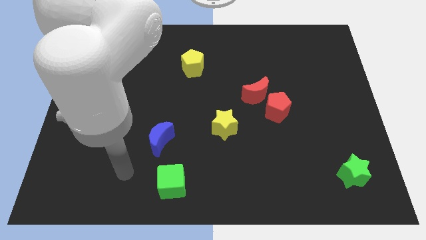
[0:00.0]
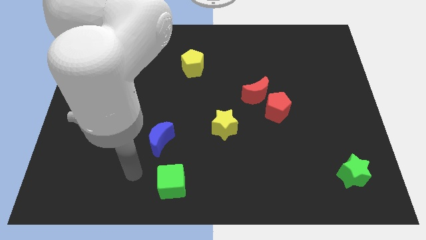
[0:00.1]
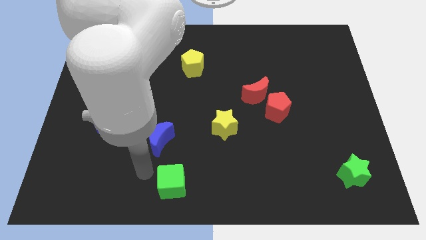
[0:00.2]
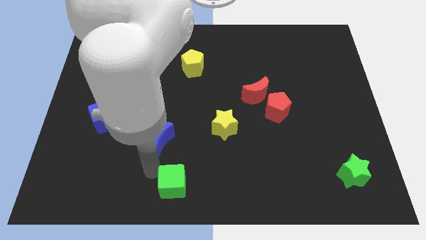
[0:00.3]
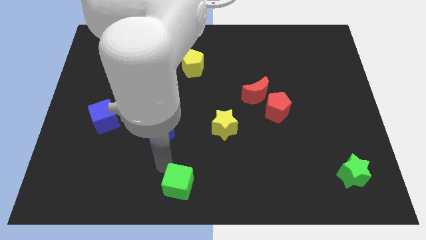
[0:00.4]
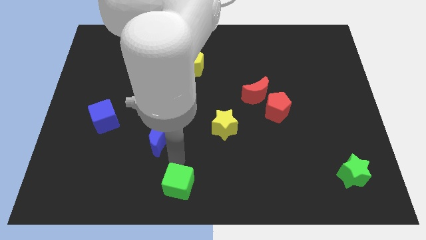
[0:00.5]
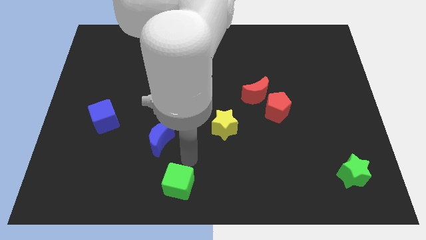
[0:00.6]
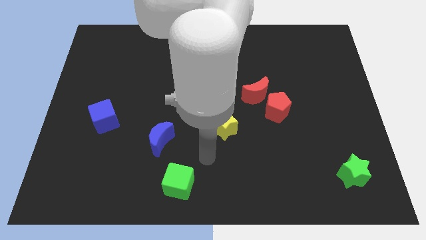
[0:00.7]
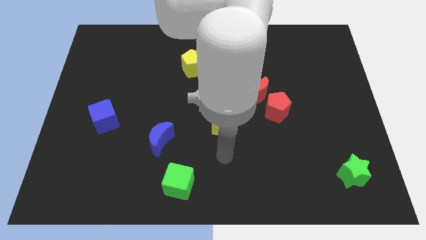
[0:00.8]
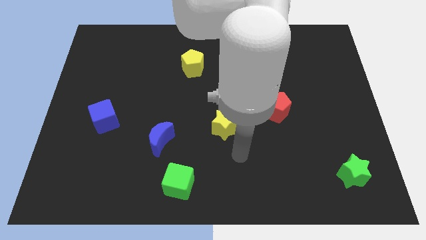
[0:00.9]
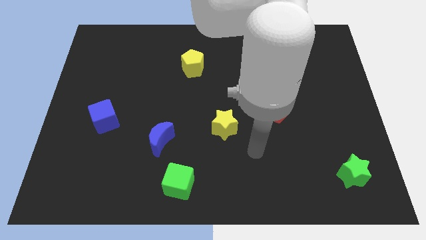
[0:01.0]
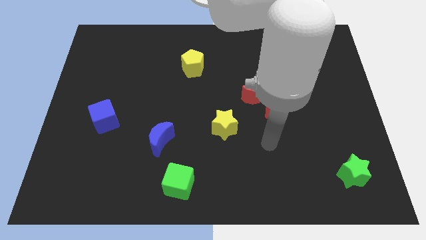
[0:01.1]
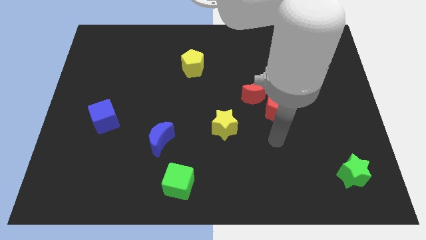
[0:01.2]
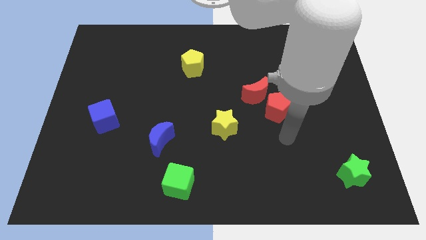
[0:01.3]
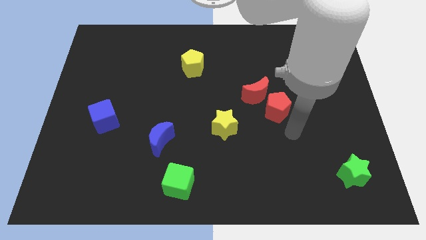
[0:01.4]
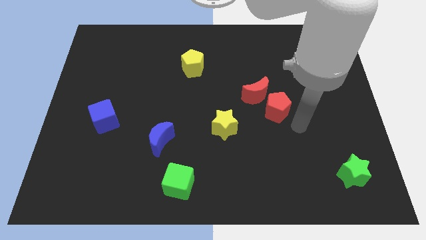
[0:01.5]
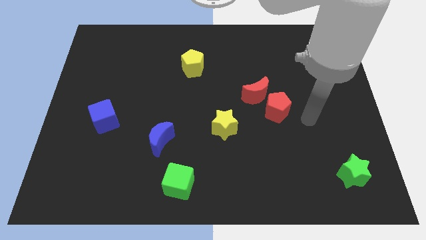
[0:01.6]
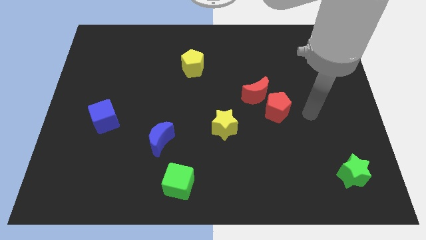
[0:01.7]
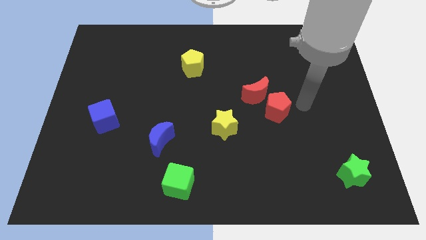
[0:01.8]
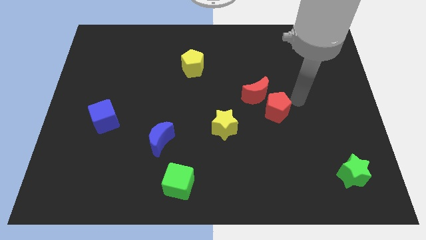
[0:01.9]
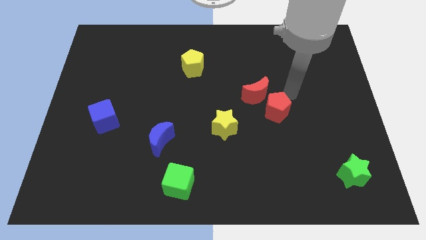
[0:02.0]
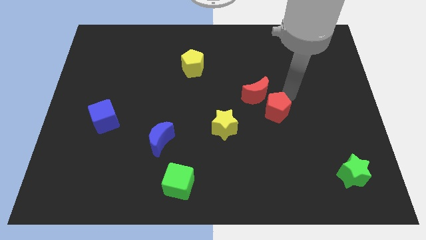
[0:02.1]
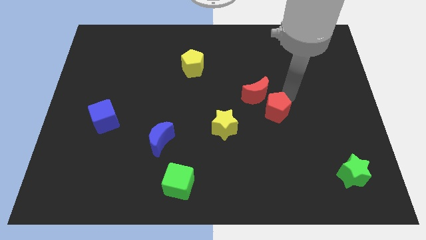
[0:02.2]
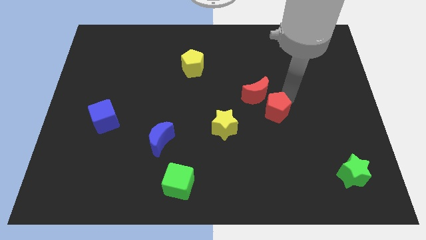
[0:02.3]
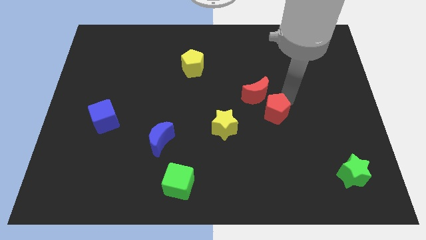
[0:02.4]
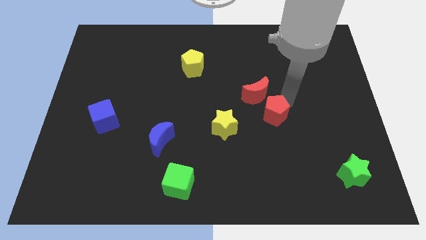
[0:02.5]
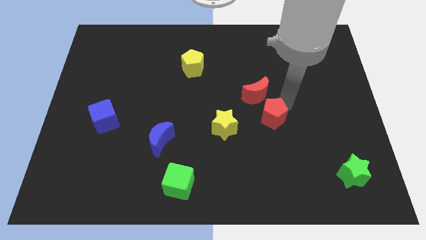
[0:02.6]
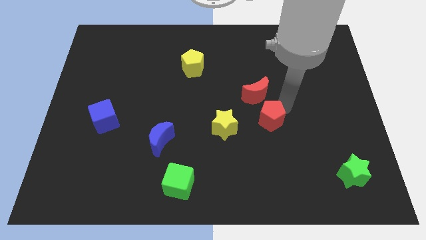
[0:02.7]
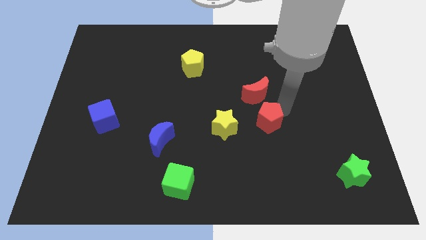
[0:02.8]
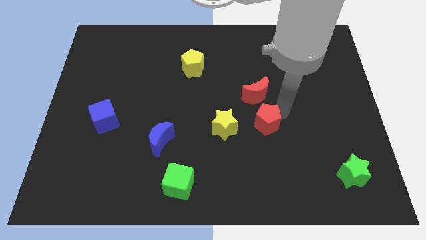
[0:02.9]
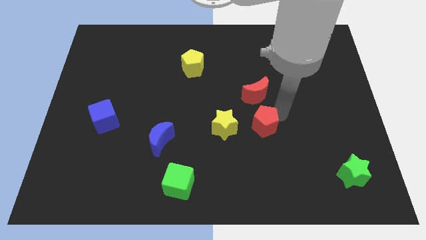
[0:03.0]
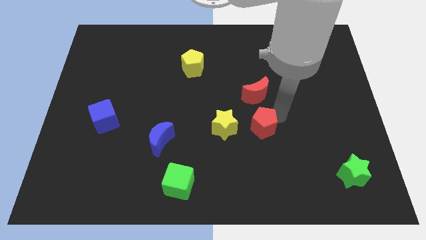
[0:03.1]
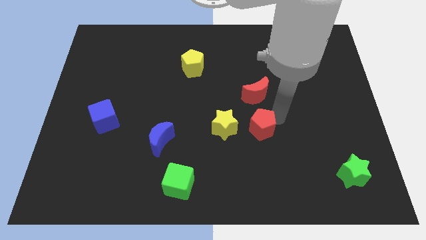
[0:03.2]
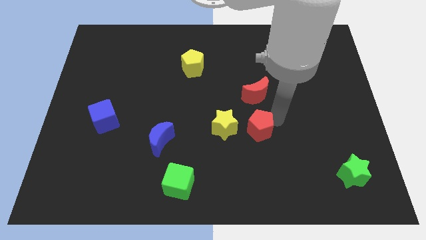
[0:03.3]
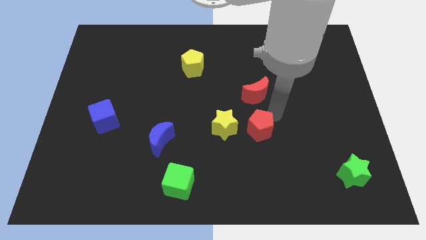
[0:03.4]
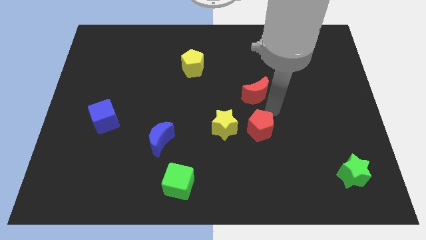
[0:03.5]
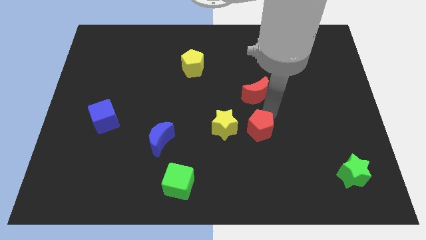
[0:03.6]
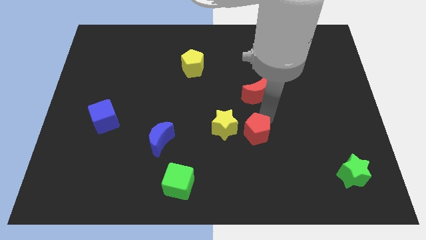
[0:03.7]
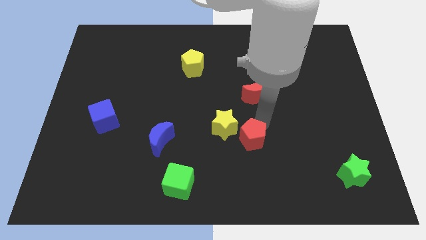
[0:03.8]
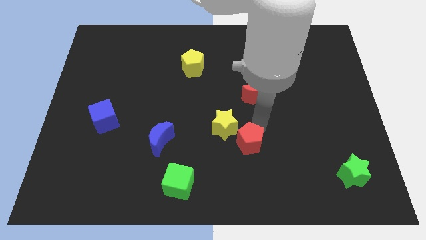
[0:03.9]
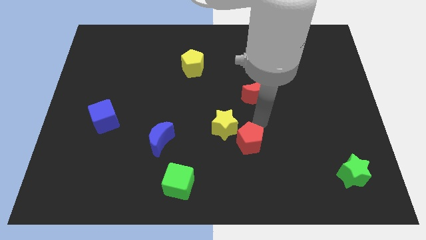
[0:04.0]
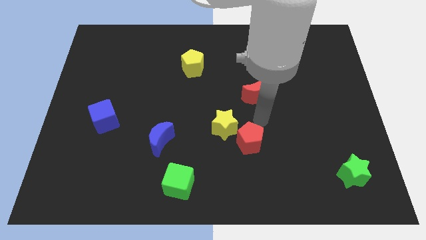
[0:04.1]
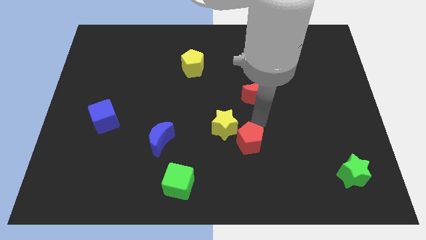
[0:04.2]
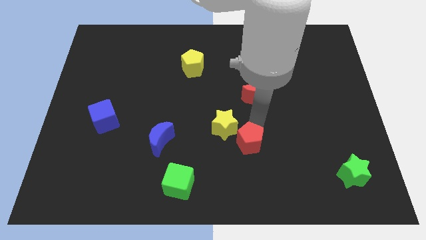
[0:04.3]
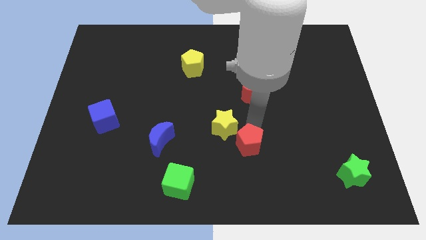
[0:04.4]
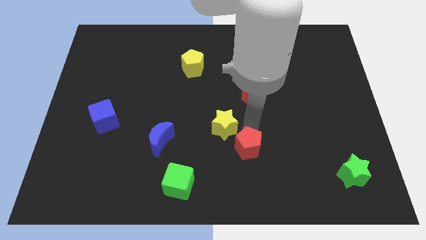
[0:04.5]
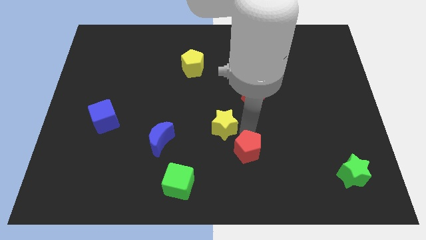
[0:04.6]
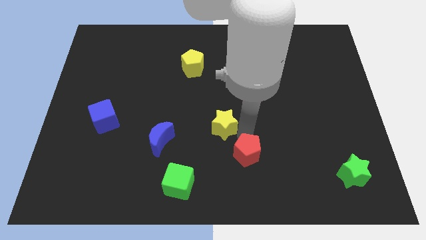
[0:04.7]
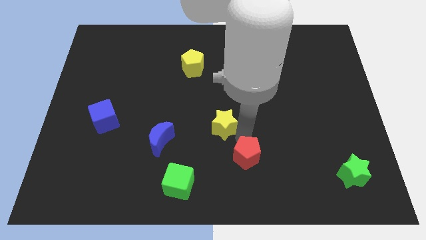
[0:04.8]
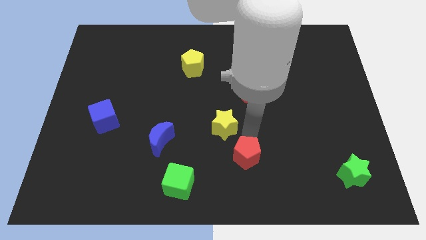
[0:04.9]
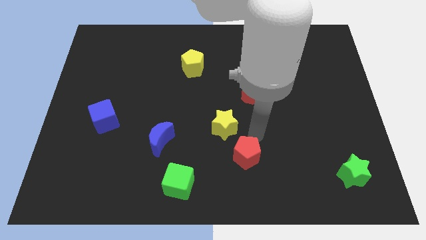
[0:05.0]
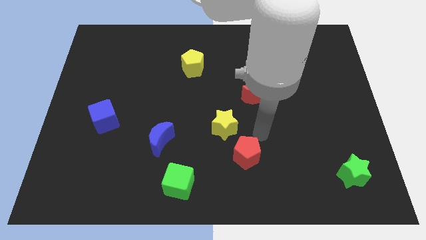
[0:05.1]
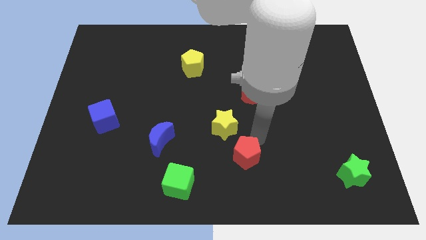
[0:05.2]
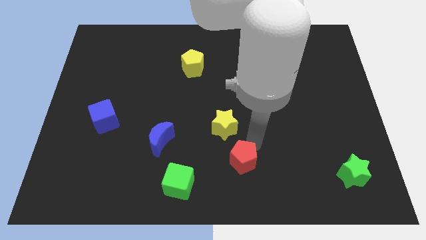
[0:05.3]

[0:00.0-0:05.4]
slide the red pentagon to the bottom

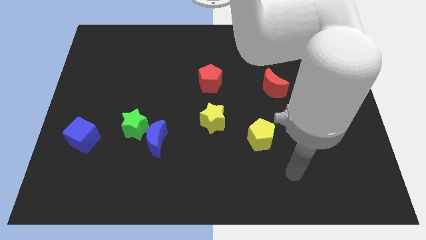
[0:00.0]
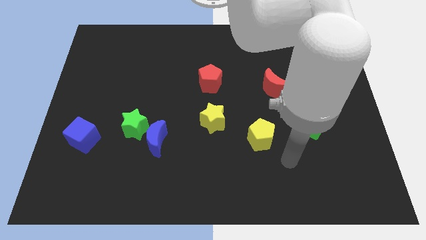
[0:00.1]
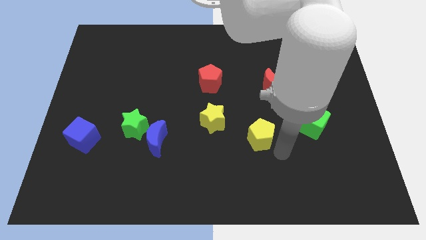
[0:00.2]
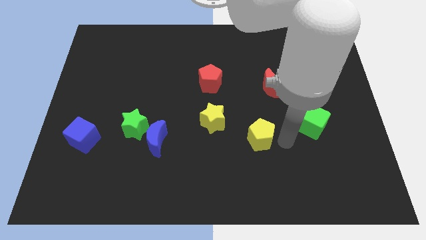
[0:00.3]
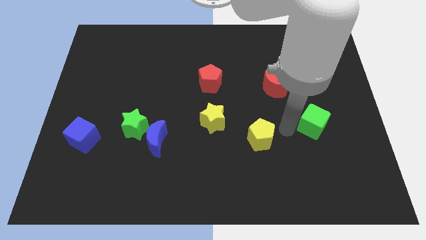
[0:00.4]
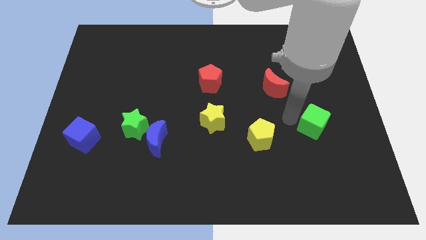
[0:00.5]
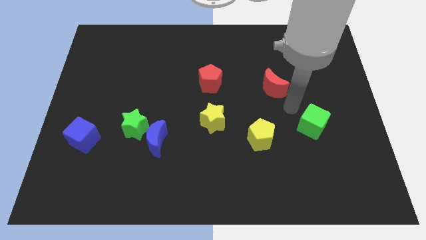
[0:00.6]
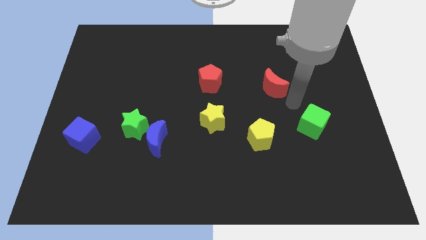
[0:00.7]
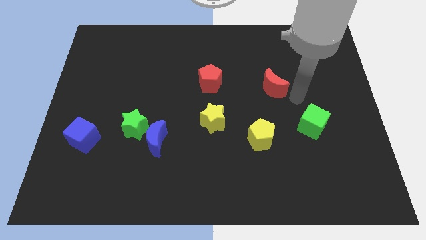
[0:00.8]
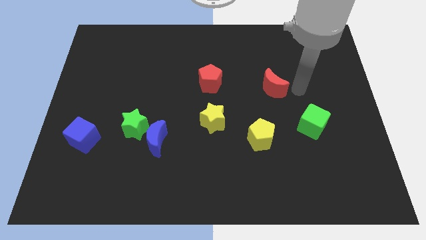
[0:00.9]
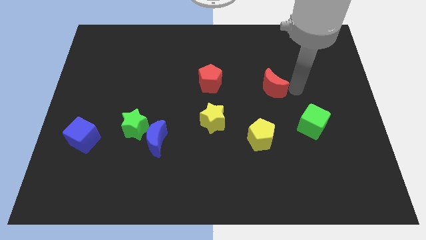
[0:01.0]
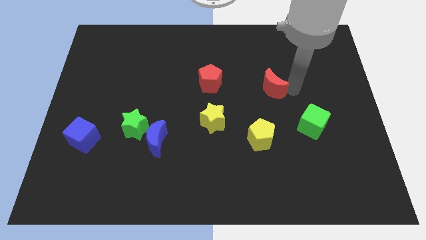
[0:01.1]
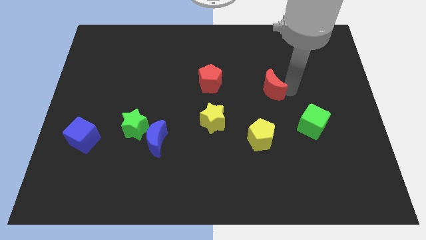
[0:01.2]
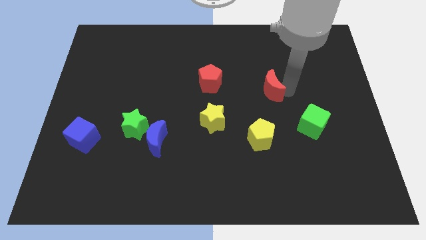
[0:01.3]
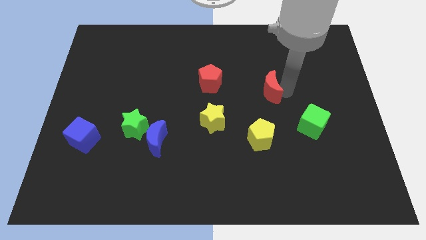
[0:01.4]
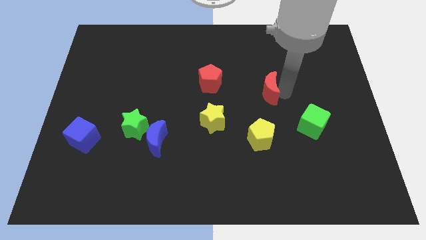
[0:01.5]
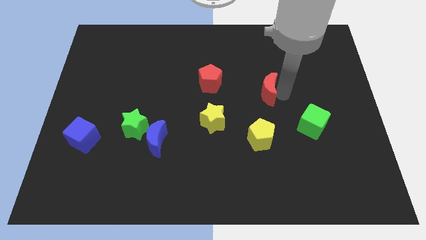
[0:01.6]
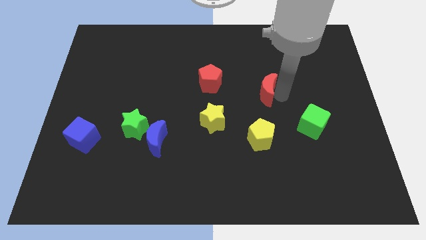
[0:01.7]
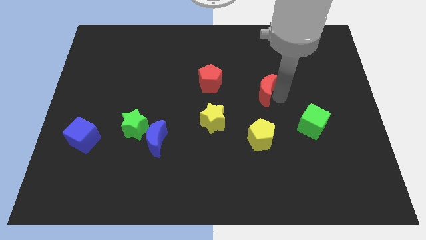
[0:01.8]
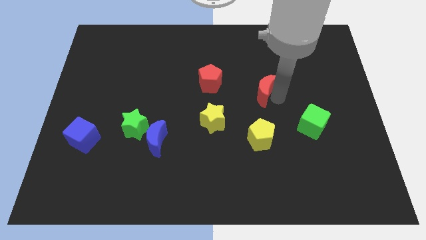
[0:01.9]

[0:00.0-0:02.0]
push the red moon to the center of the board

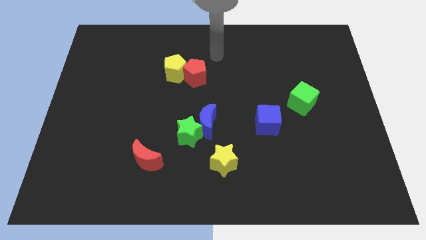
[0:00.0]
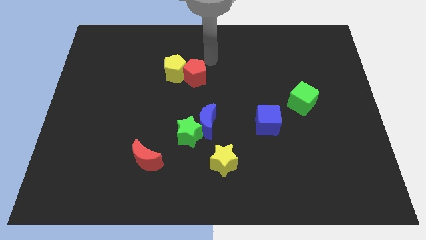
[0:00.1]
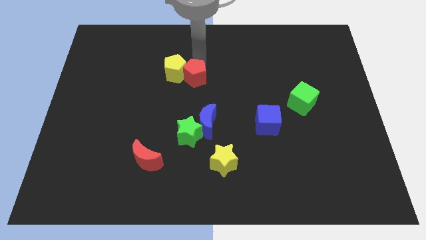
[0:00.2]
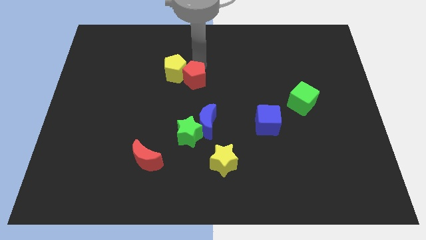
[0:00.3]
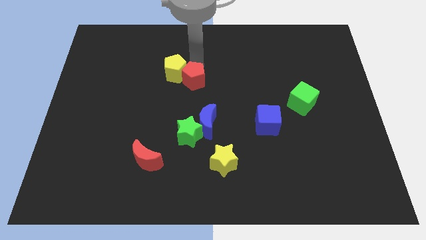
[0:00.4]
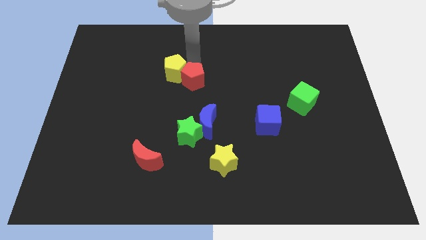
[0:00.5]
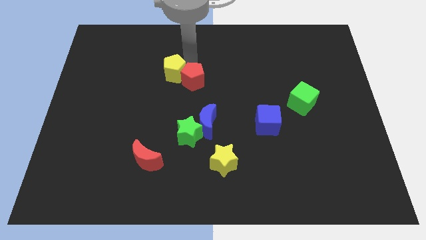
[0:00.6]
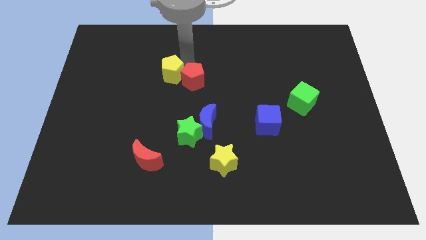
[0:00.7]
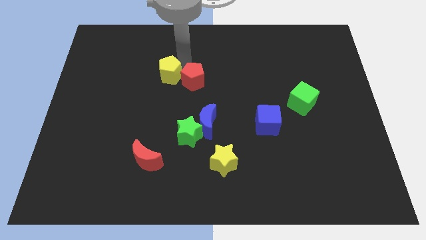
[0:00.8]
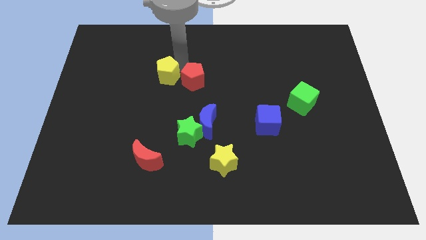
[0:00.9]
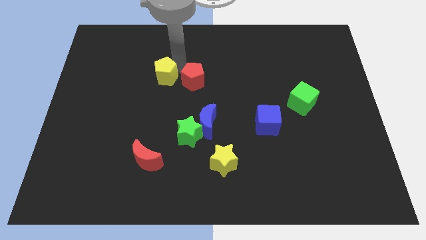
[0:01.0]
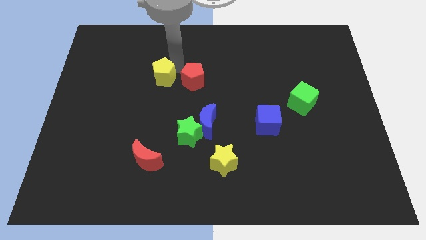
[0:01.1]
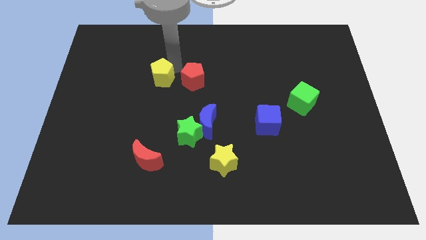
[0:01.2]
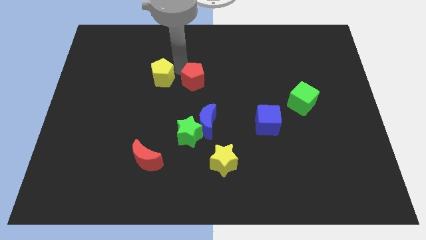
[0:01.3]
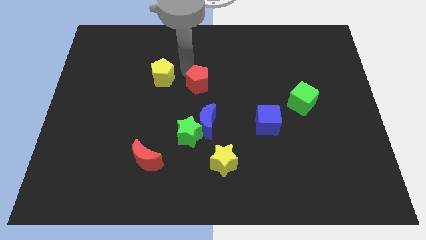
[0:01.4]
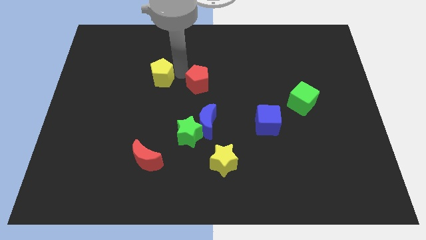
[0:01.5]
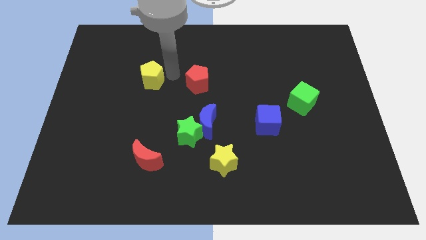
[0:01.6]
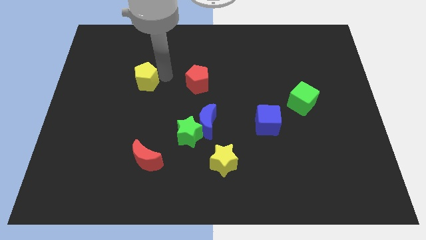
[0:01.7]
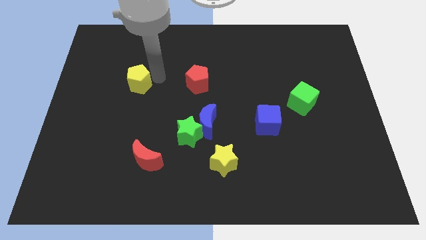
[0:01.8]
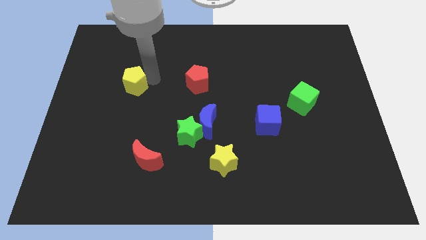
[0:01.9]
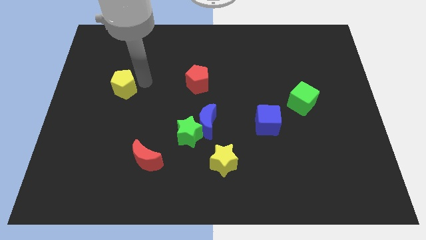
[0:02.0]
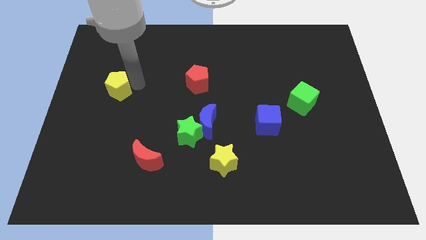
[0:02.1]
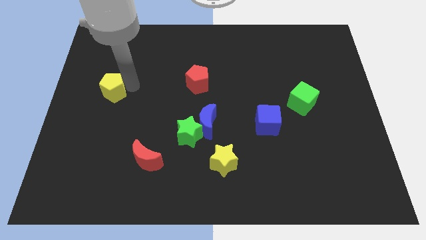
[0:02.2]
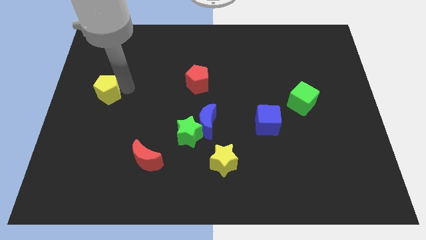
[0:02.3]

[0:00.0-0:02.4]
move the yellow pentagon to the center left
